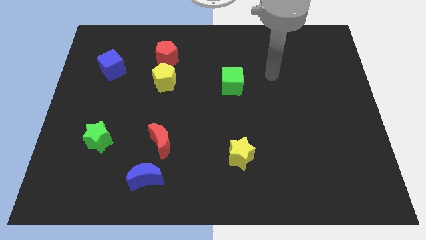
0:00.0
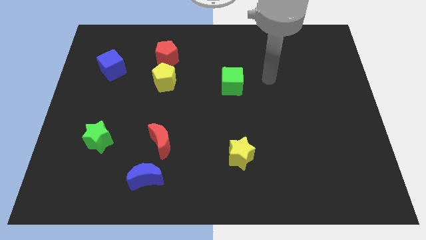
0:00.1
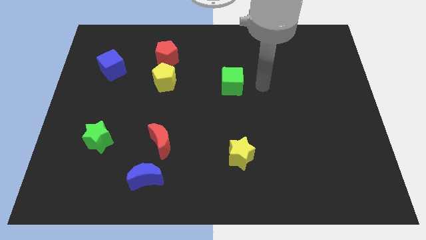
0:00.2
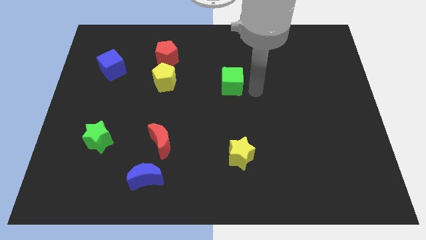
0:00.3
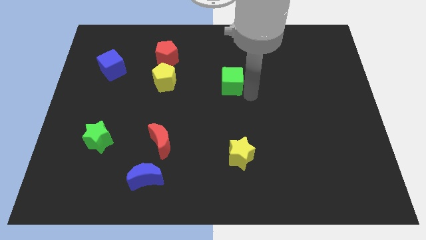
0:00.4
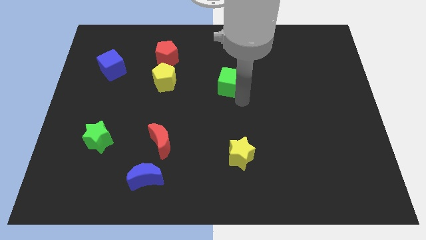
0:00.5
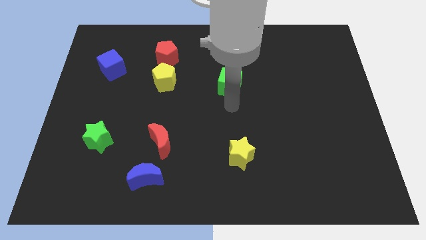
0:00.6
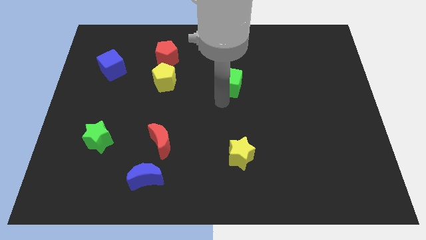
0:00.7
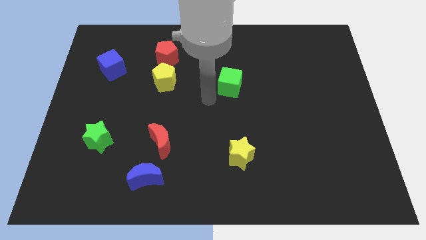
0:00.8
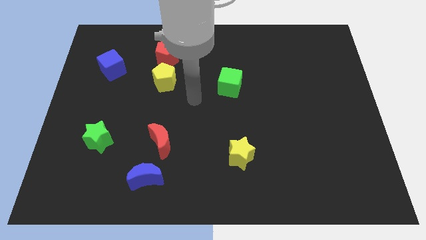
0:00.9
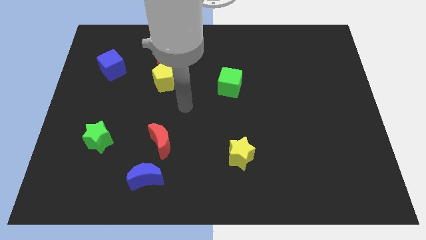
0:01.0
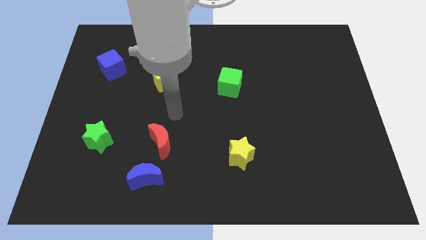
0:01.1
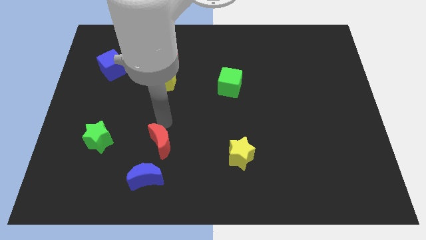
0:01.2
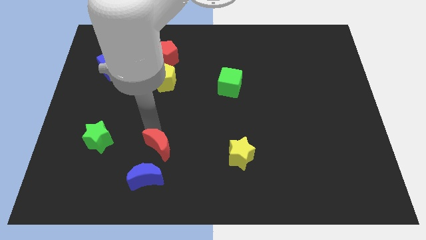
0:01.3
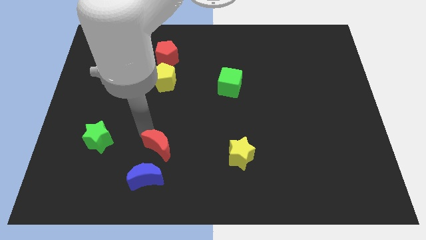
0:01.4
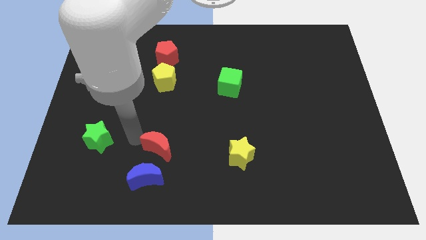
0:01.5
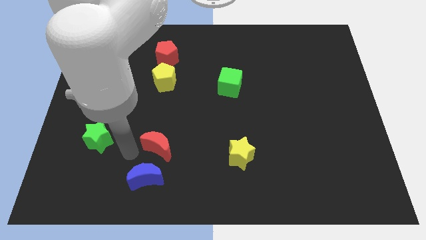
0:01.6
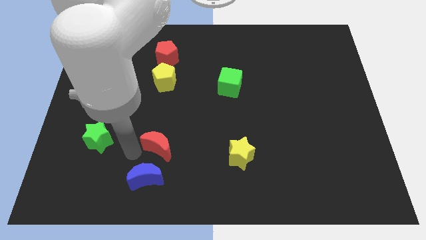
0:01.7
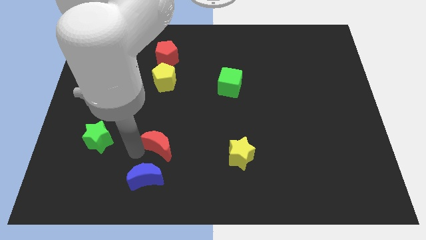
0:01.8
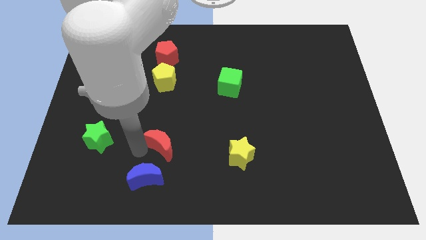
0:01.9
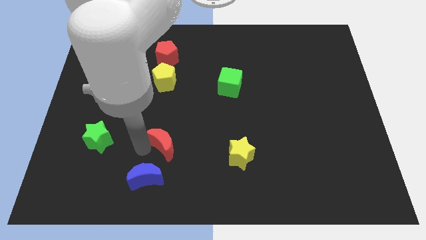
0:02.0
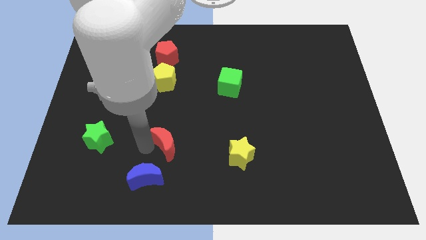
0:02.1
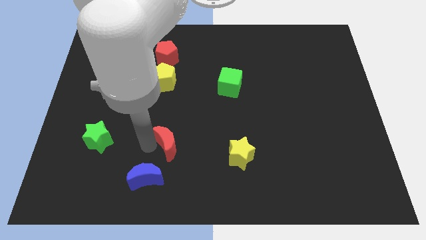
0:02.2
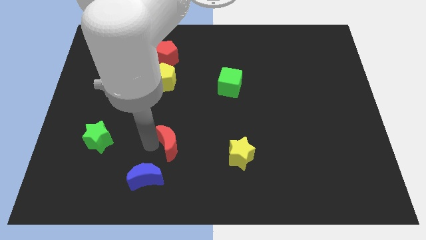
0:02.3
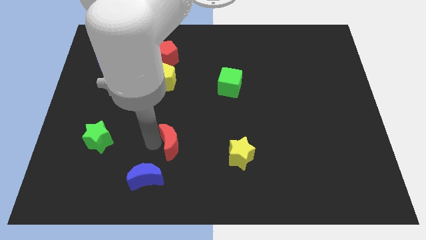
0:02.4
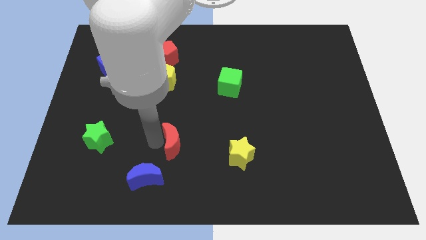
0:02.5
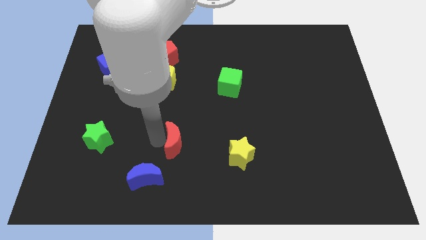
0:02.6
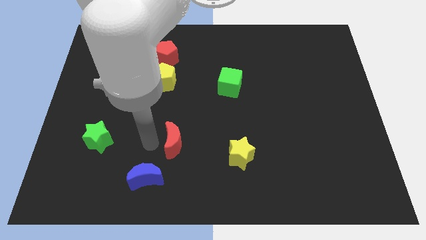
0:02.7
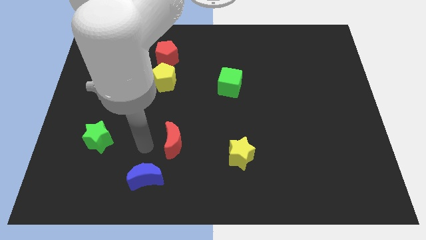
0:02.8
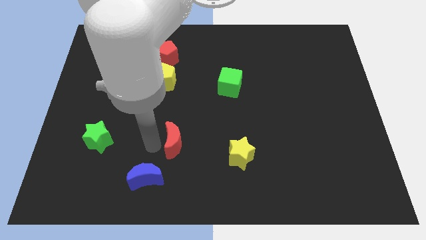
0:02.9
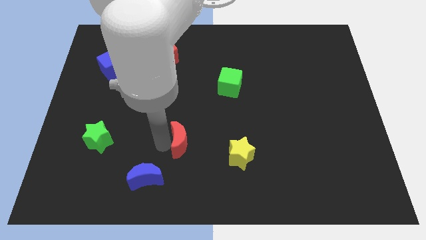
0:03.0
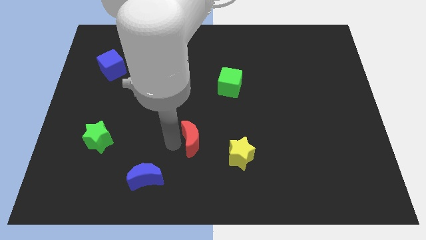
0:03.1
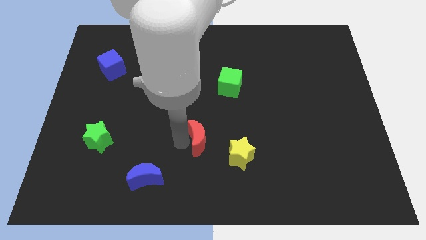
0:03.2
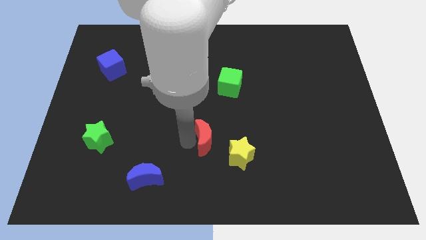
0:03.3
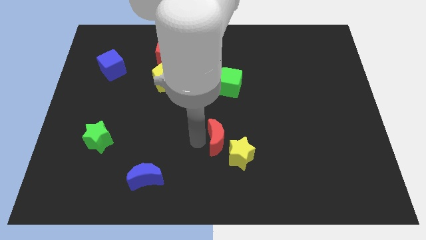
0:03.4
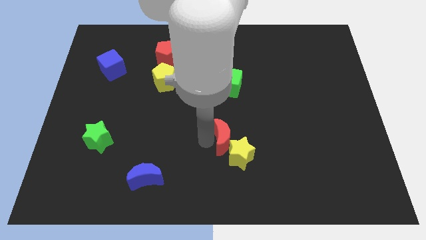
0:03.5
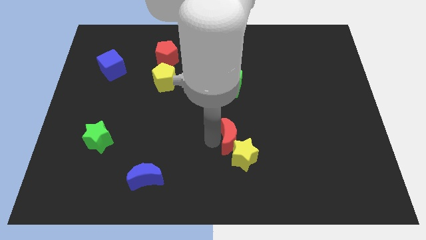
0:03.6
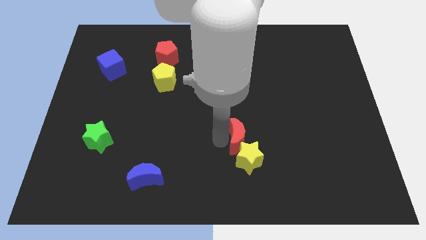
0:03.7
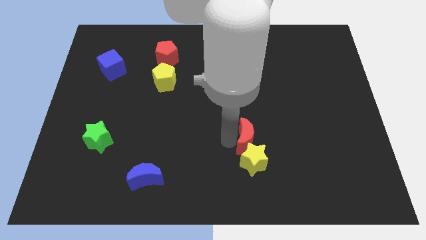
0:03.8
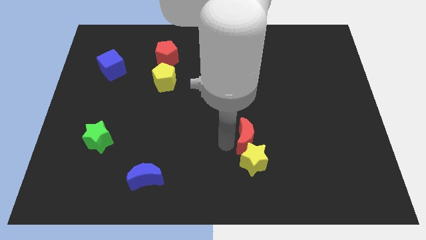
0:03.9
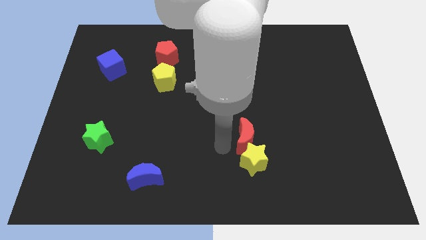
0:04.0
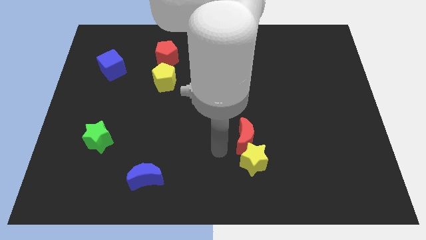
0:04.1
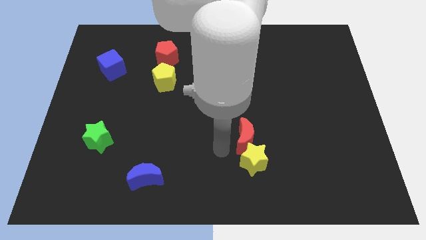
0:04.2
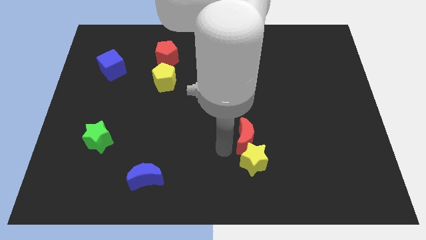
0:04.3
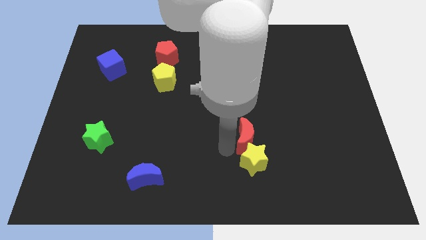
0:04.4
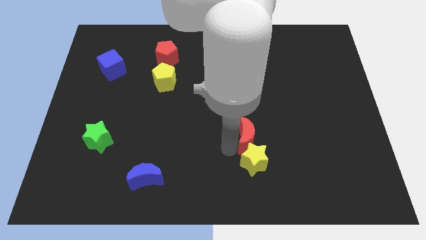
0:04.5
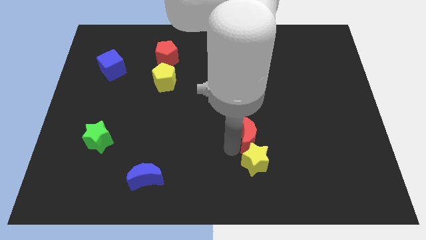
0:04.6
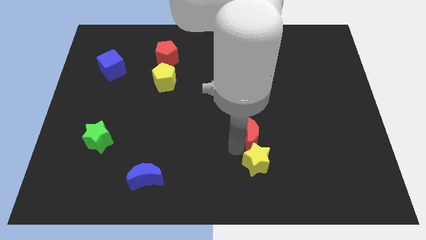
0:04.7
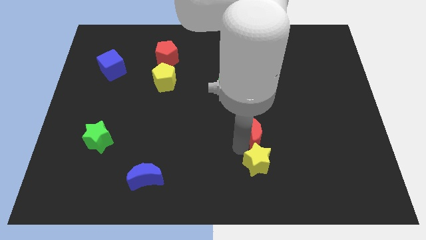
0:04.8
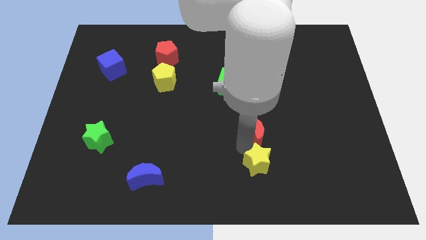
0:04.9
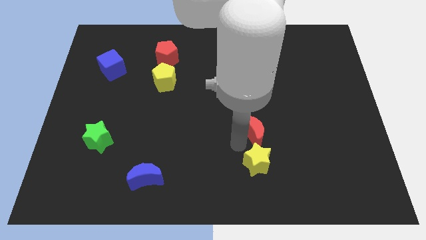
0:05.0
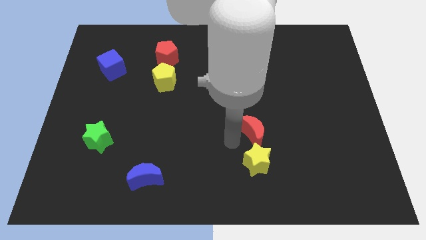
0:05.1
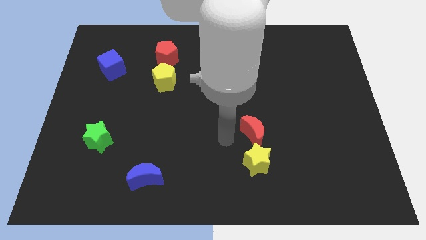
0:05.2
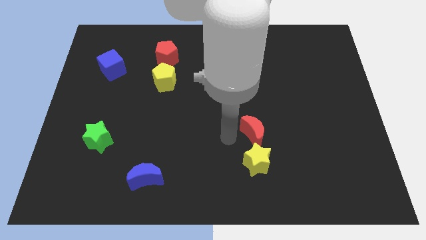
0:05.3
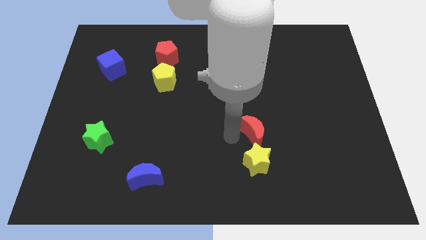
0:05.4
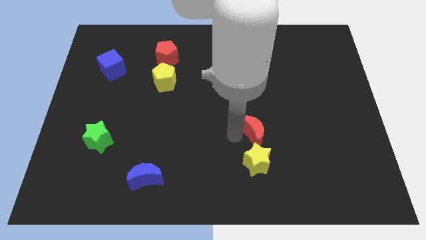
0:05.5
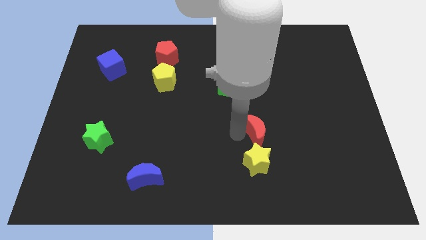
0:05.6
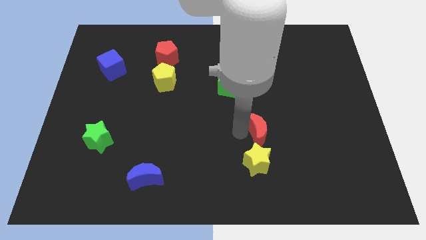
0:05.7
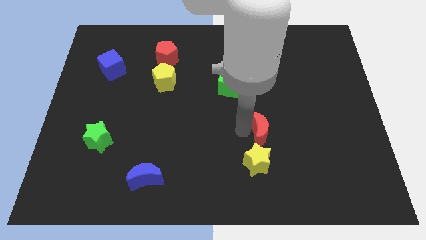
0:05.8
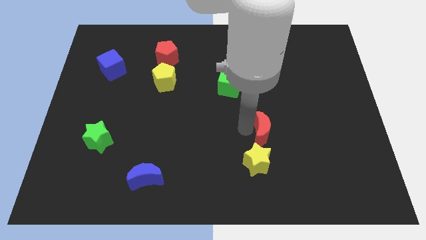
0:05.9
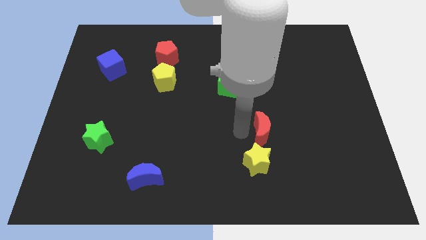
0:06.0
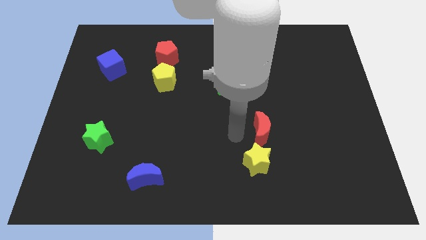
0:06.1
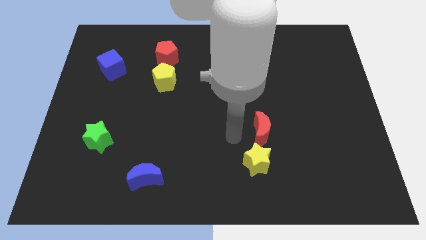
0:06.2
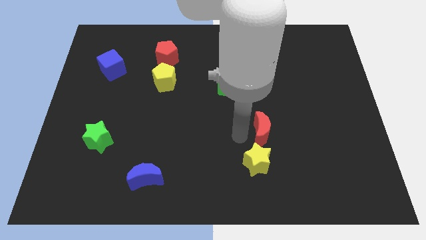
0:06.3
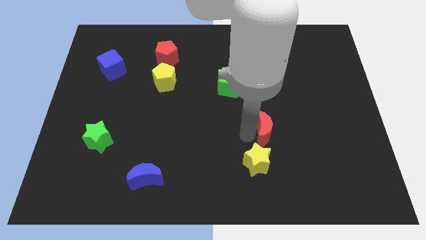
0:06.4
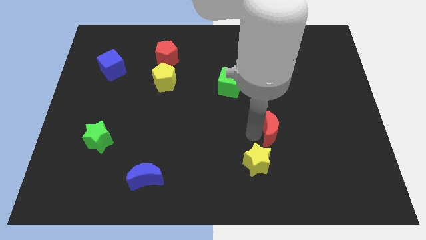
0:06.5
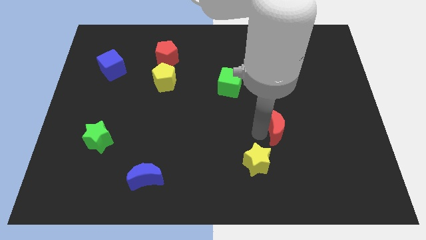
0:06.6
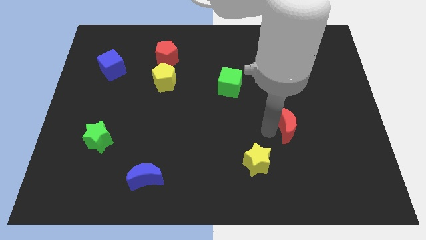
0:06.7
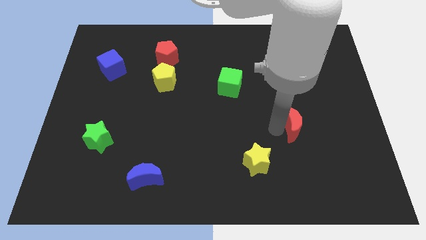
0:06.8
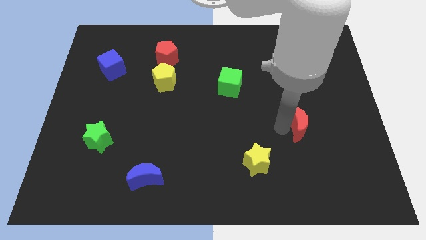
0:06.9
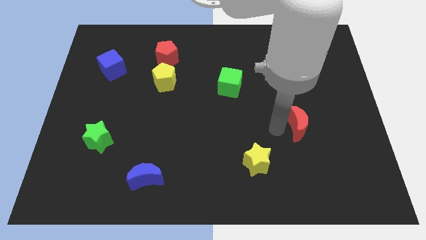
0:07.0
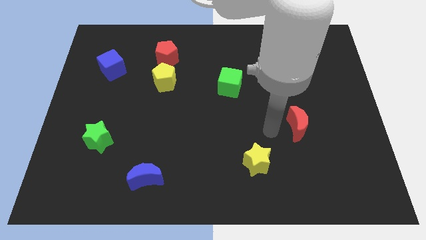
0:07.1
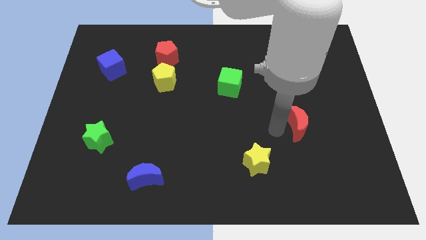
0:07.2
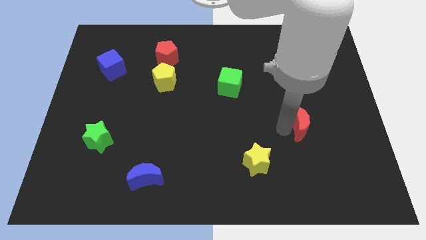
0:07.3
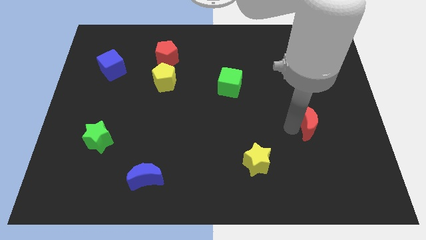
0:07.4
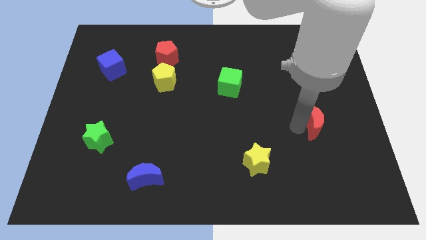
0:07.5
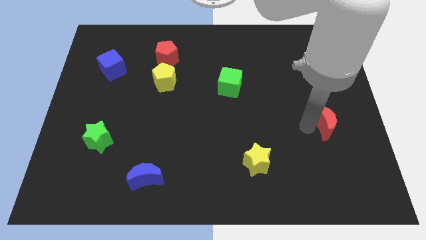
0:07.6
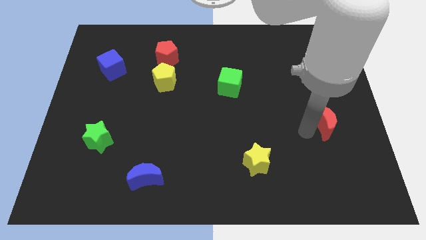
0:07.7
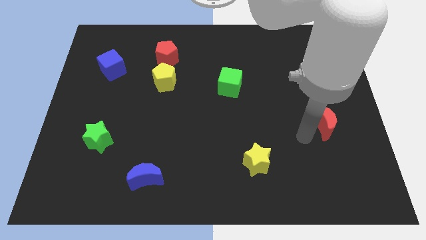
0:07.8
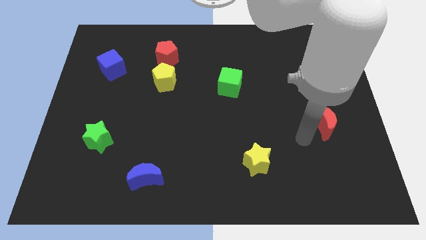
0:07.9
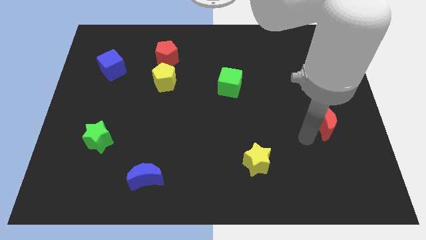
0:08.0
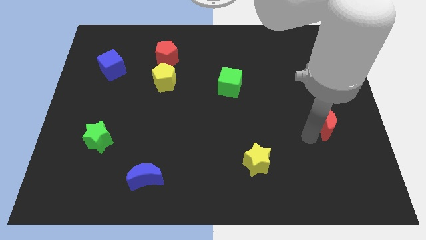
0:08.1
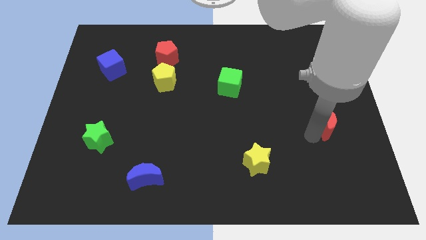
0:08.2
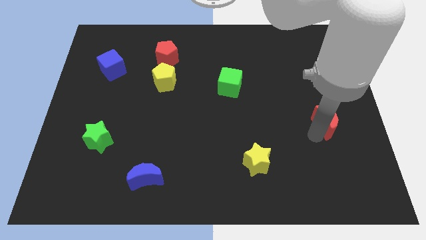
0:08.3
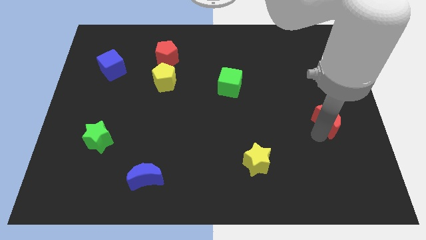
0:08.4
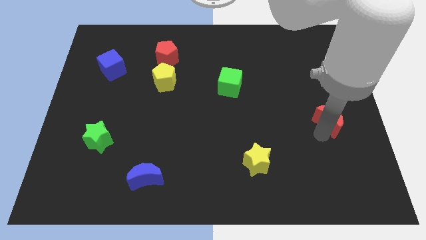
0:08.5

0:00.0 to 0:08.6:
slide the red moon to the right side
